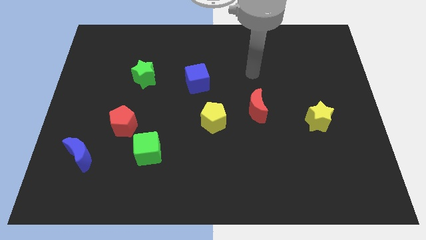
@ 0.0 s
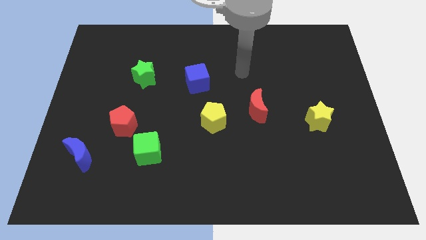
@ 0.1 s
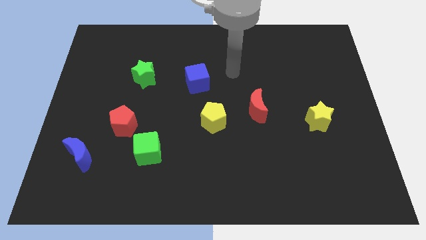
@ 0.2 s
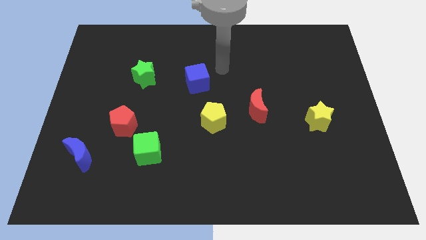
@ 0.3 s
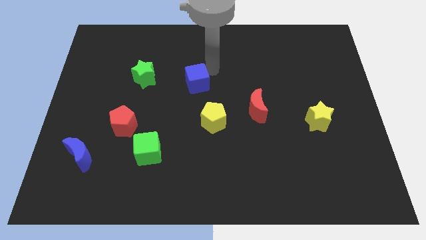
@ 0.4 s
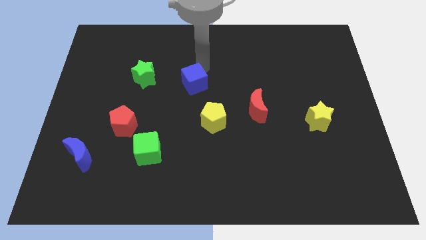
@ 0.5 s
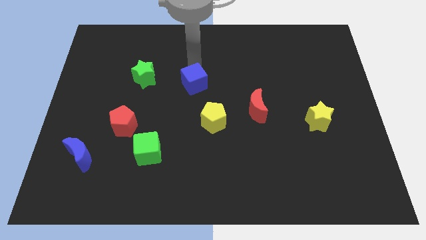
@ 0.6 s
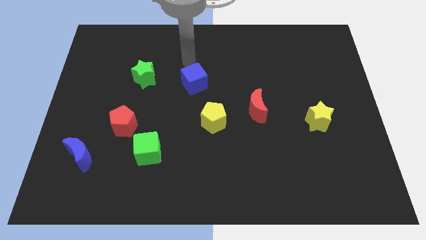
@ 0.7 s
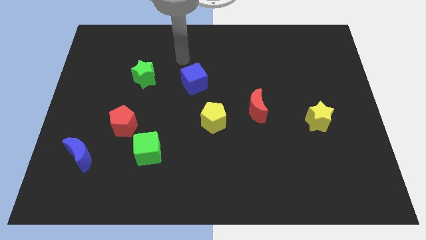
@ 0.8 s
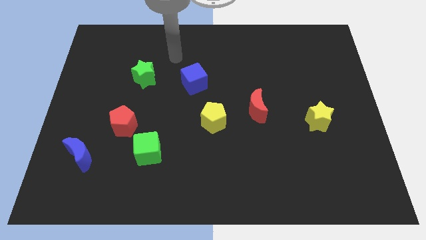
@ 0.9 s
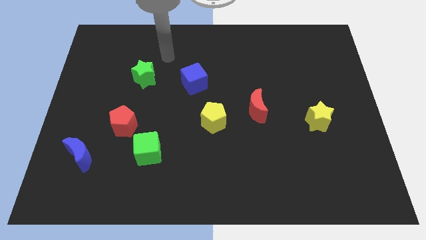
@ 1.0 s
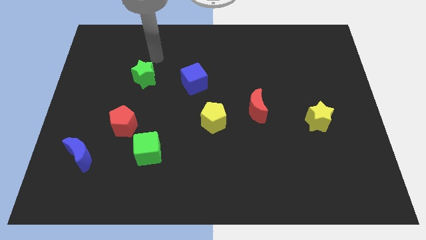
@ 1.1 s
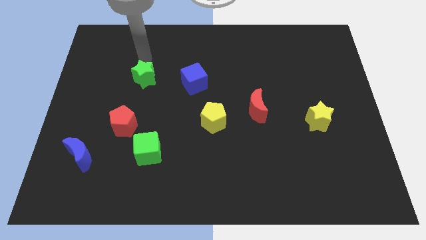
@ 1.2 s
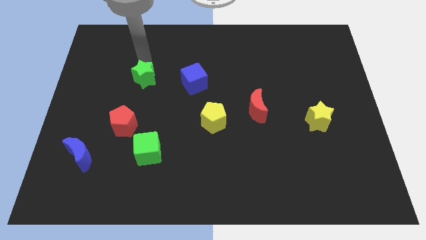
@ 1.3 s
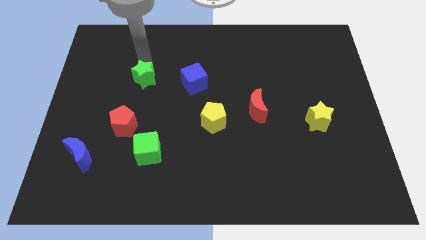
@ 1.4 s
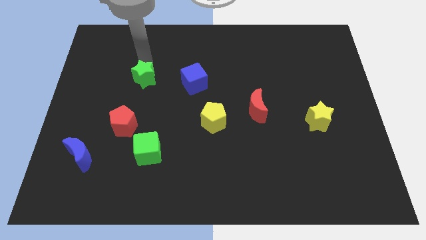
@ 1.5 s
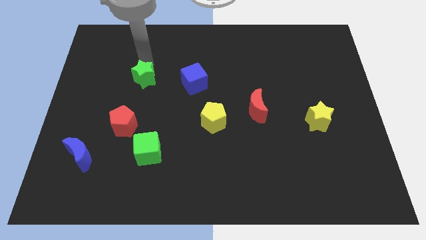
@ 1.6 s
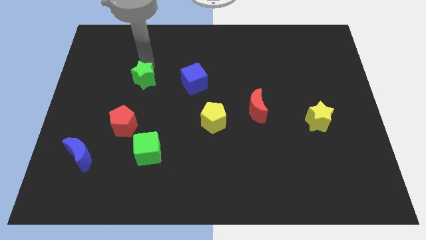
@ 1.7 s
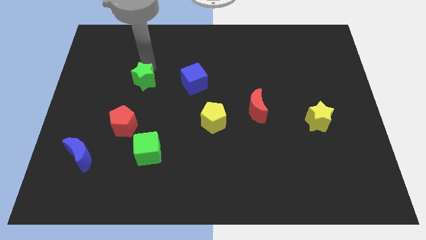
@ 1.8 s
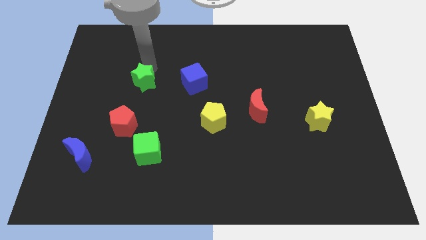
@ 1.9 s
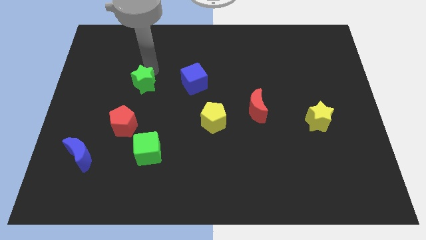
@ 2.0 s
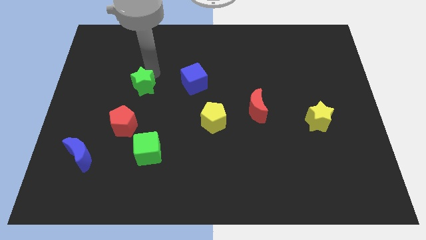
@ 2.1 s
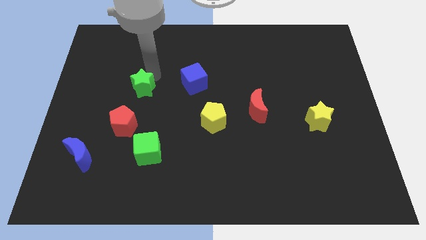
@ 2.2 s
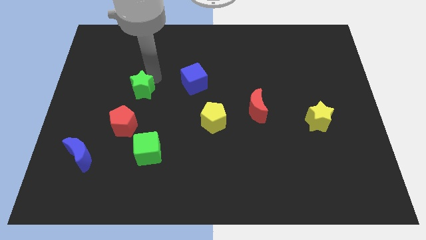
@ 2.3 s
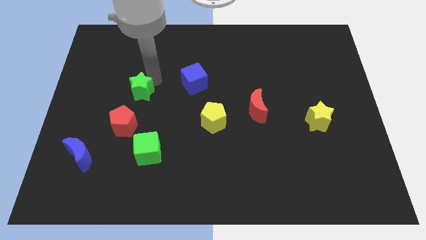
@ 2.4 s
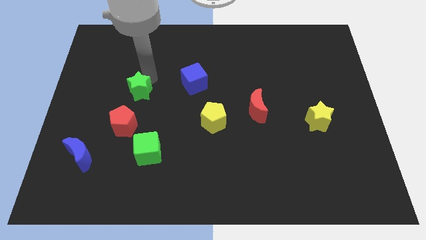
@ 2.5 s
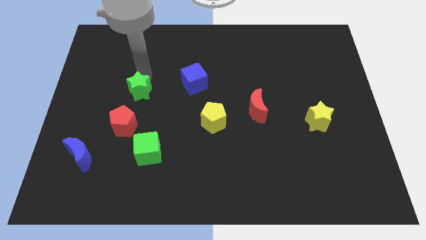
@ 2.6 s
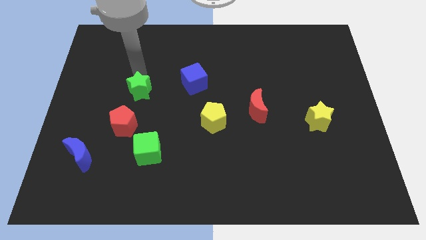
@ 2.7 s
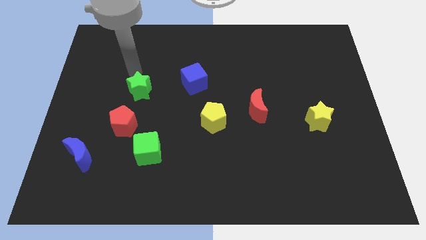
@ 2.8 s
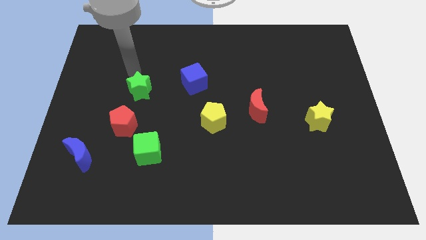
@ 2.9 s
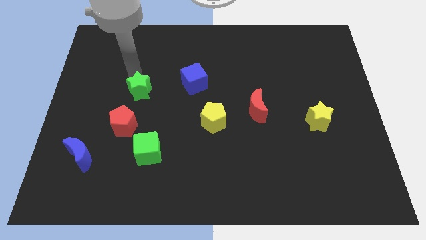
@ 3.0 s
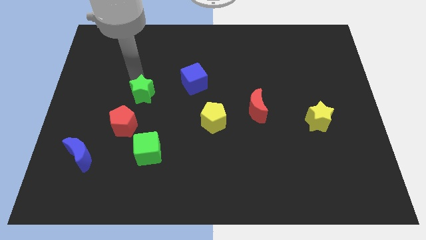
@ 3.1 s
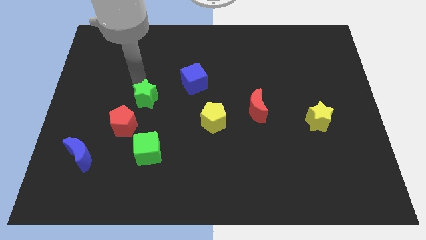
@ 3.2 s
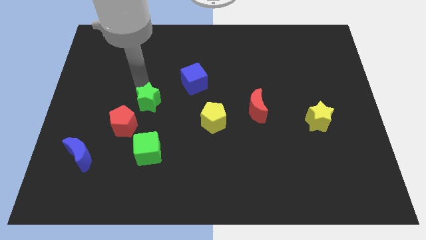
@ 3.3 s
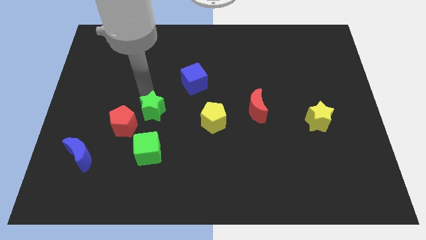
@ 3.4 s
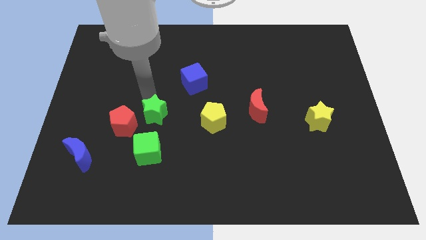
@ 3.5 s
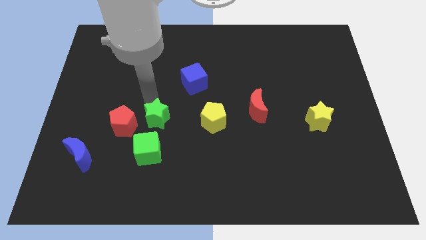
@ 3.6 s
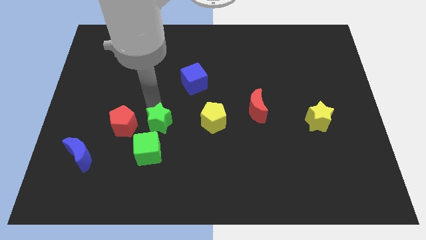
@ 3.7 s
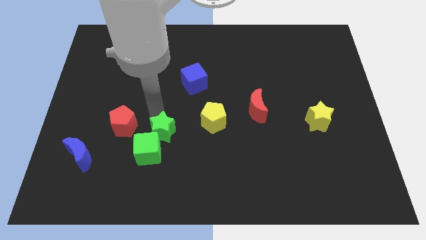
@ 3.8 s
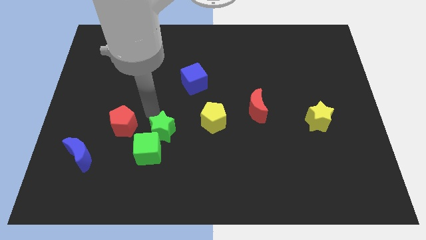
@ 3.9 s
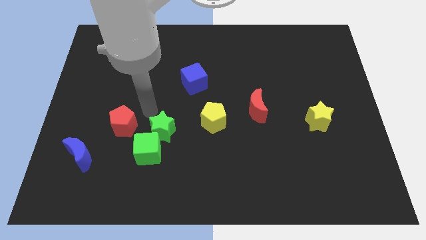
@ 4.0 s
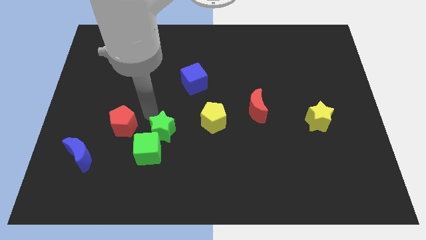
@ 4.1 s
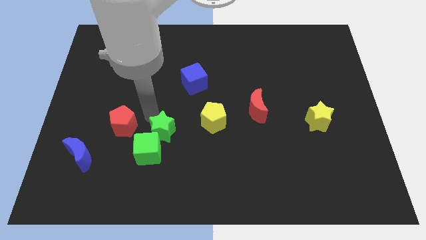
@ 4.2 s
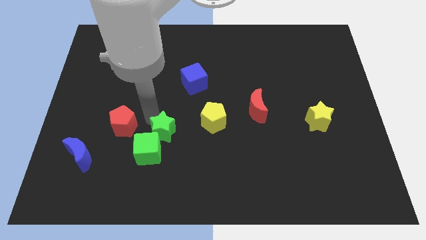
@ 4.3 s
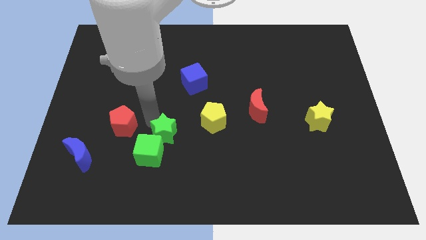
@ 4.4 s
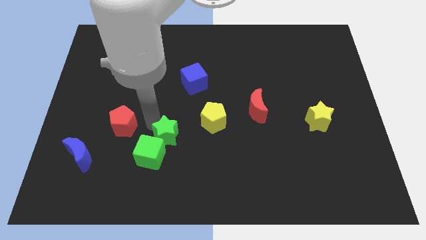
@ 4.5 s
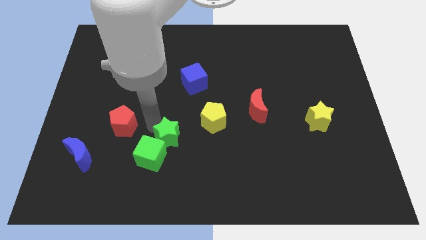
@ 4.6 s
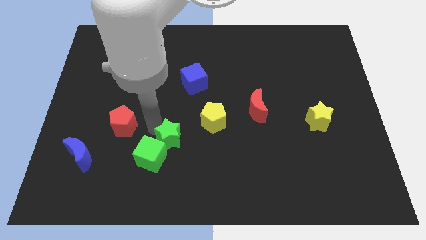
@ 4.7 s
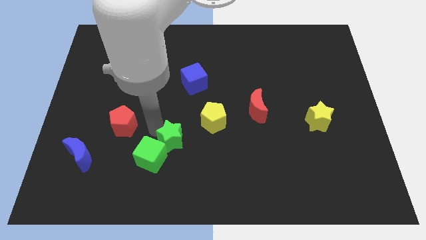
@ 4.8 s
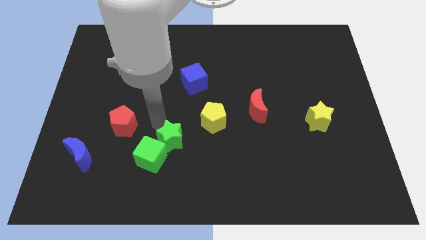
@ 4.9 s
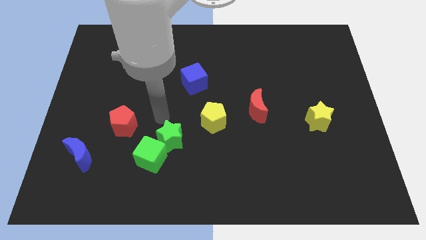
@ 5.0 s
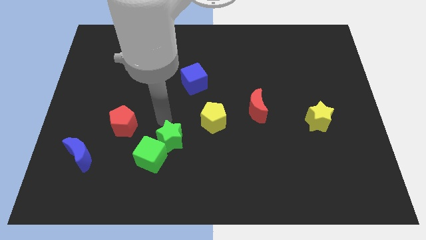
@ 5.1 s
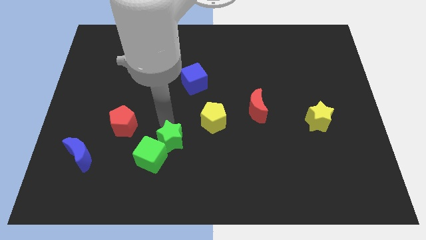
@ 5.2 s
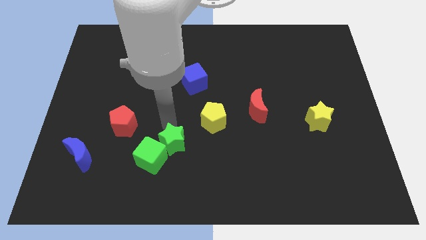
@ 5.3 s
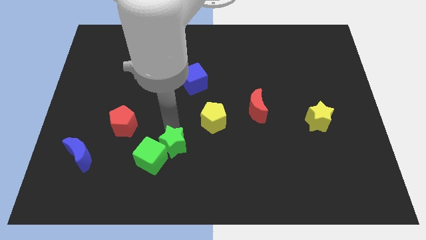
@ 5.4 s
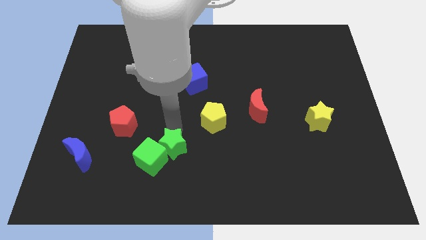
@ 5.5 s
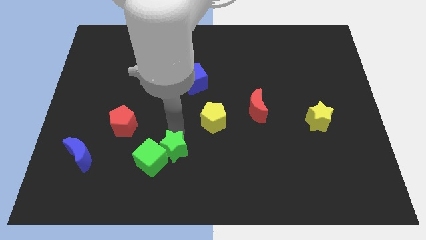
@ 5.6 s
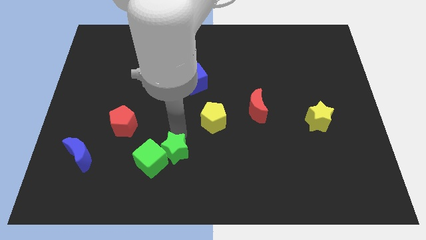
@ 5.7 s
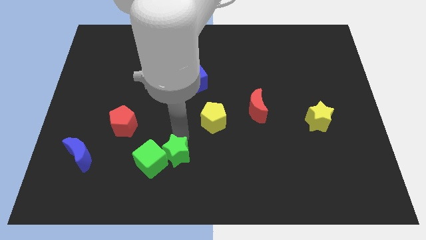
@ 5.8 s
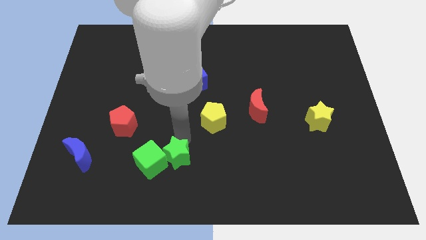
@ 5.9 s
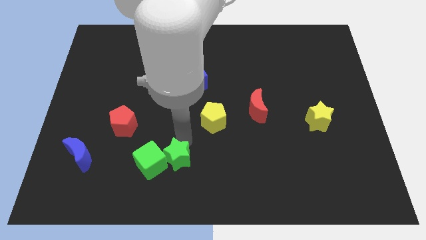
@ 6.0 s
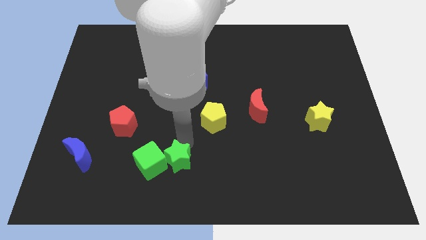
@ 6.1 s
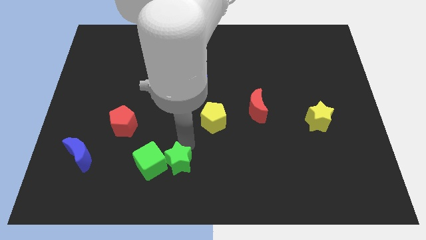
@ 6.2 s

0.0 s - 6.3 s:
put the green star to the bottom side

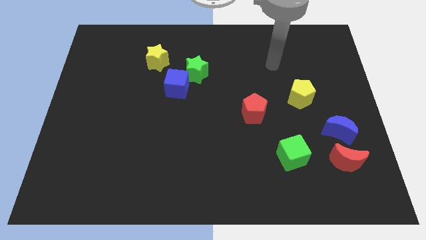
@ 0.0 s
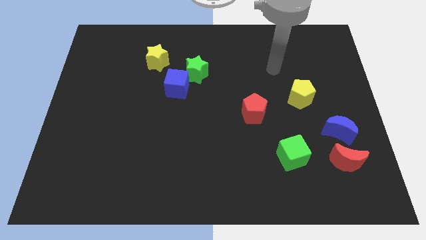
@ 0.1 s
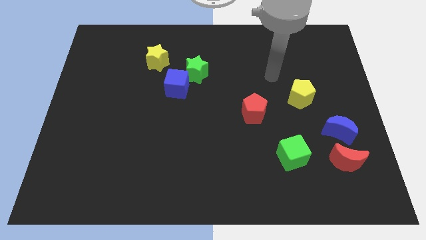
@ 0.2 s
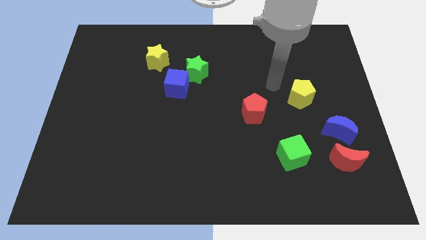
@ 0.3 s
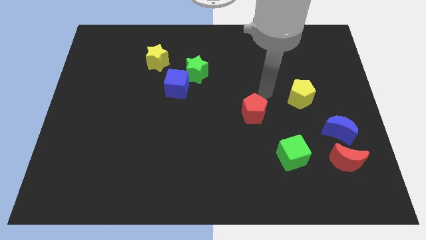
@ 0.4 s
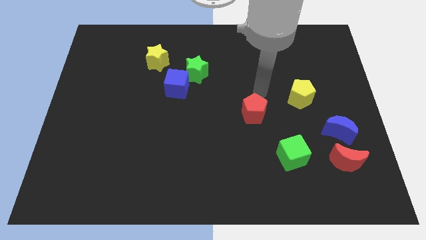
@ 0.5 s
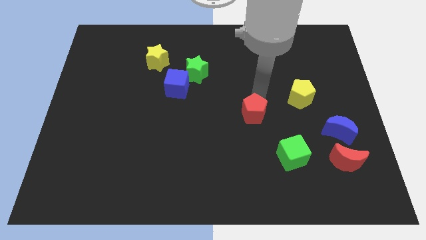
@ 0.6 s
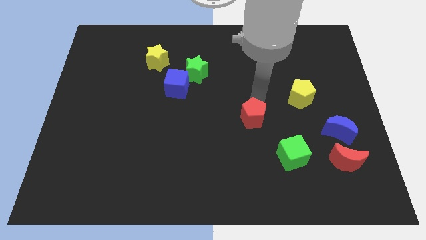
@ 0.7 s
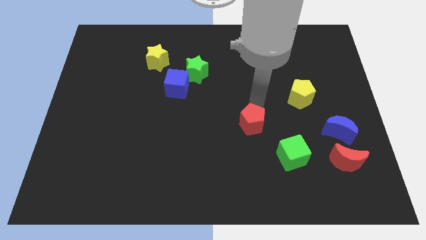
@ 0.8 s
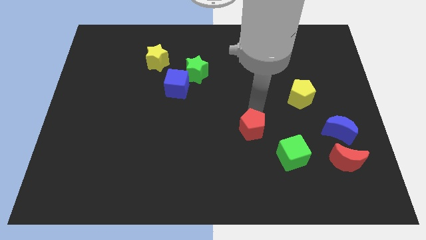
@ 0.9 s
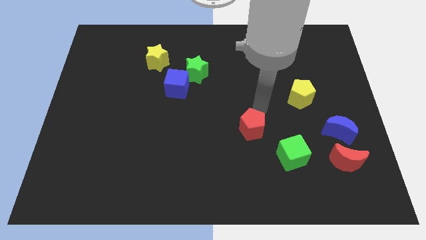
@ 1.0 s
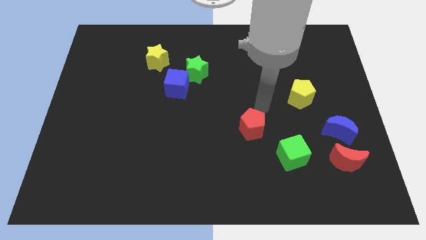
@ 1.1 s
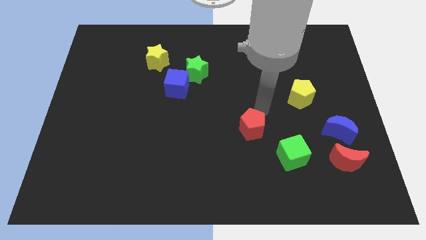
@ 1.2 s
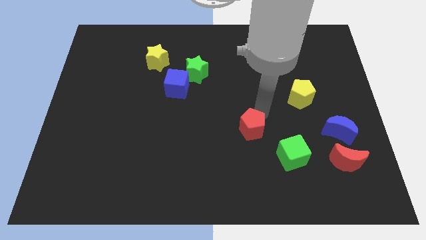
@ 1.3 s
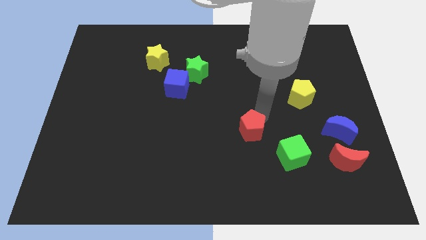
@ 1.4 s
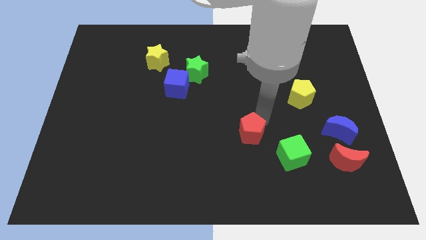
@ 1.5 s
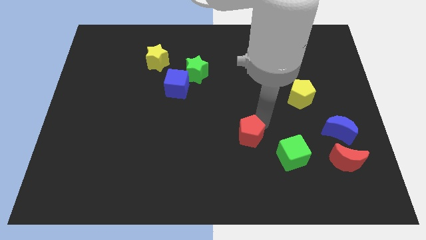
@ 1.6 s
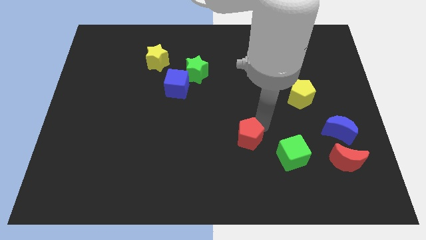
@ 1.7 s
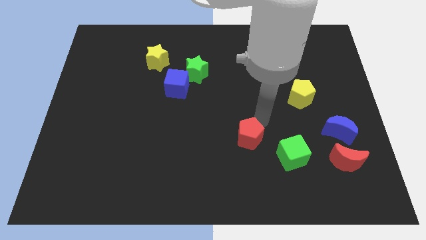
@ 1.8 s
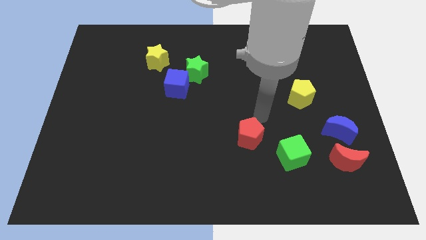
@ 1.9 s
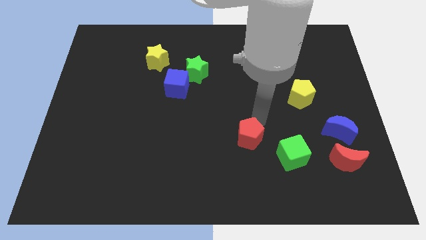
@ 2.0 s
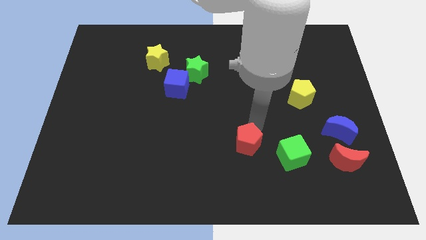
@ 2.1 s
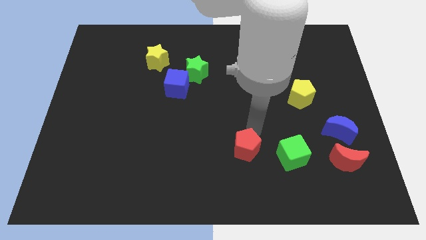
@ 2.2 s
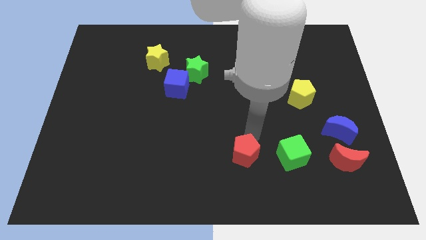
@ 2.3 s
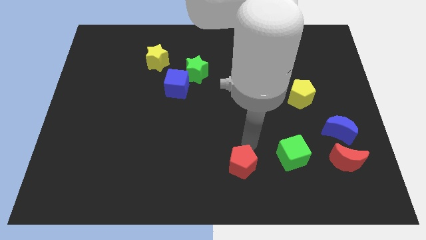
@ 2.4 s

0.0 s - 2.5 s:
slide the red pentagon to the bottom
